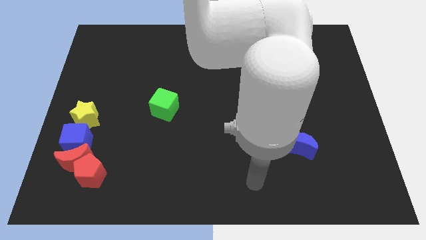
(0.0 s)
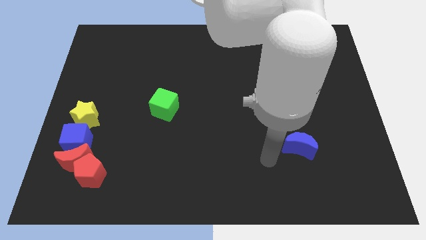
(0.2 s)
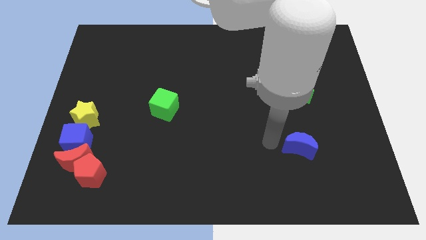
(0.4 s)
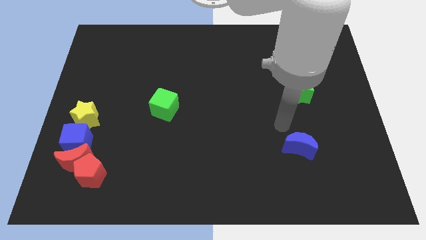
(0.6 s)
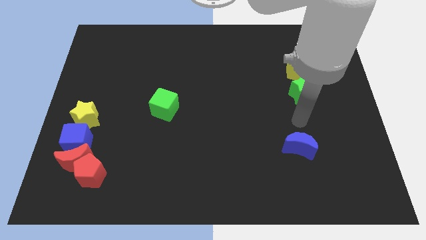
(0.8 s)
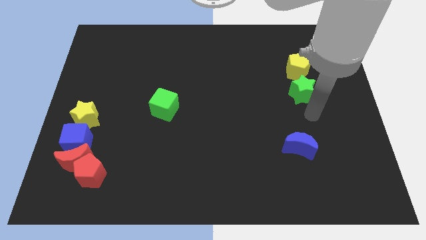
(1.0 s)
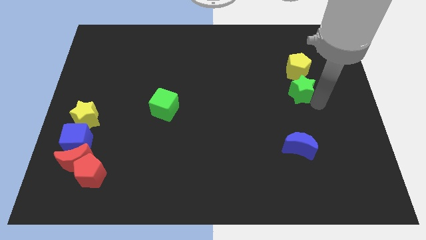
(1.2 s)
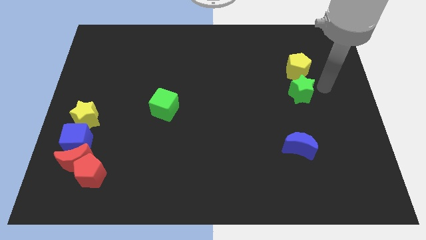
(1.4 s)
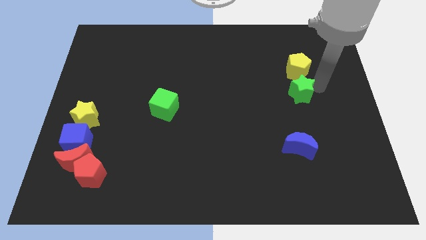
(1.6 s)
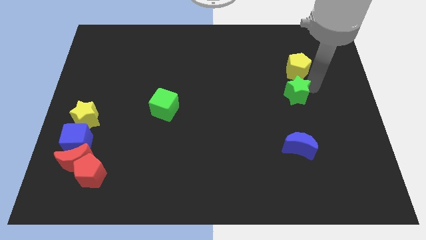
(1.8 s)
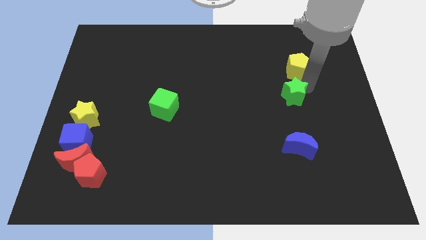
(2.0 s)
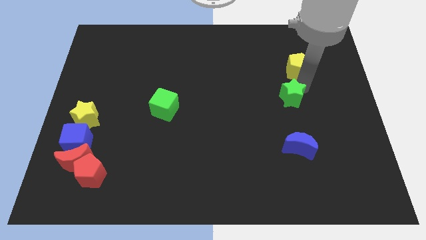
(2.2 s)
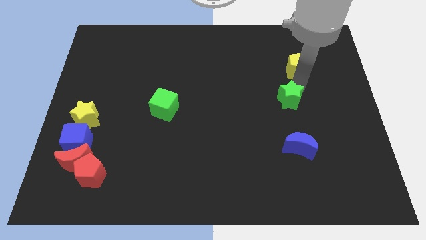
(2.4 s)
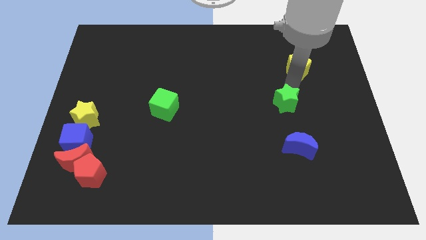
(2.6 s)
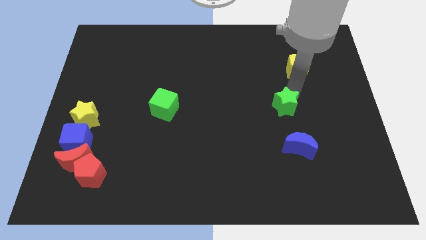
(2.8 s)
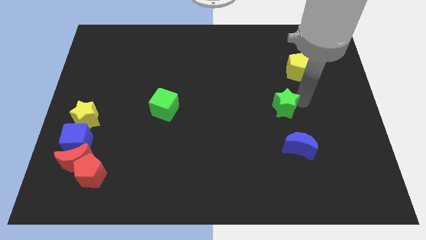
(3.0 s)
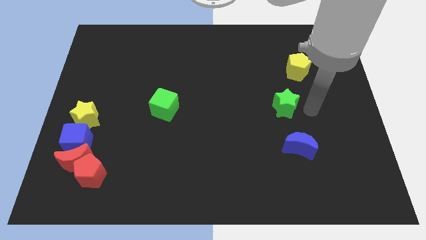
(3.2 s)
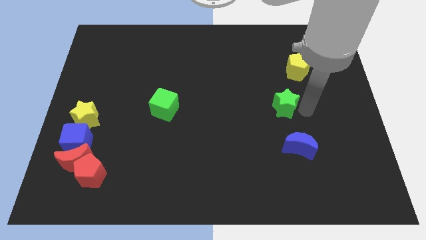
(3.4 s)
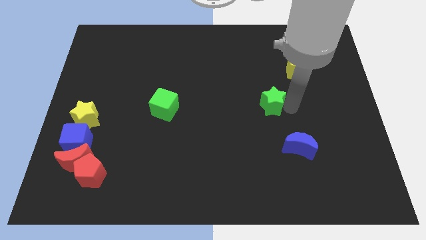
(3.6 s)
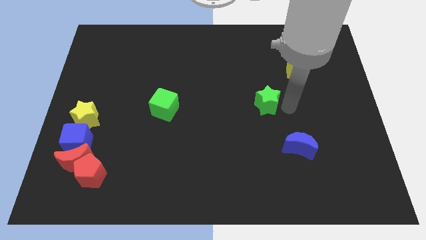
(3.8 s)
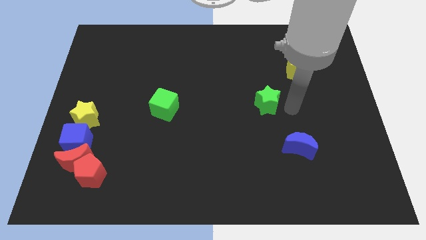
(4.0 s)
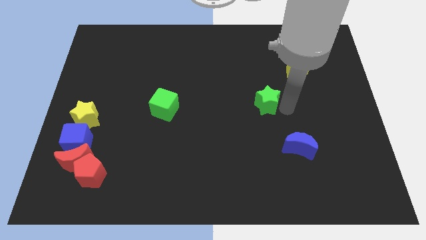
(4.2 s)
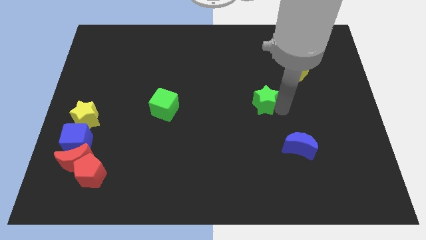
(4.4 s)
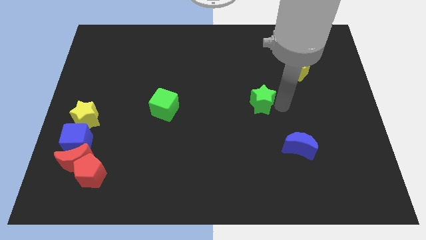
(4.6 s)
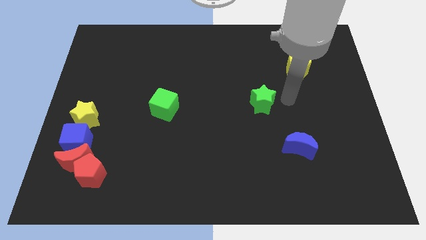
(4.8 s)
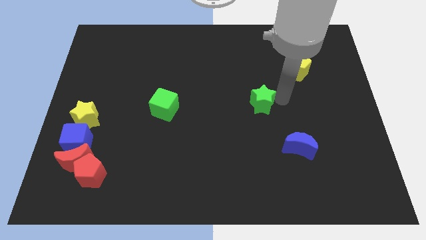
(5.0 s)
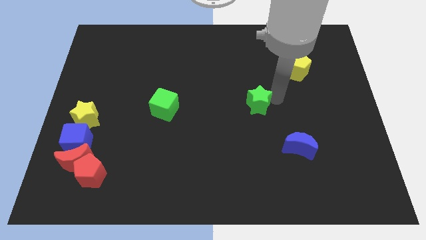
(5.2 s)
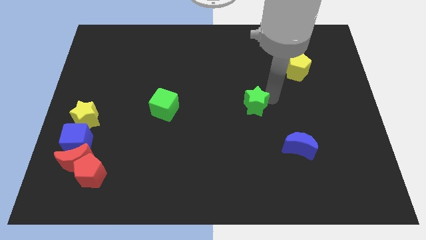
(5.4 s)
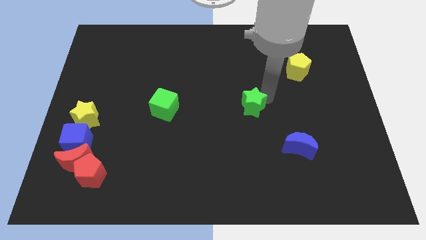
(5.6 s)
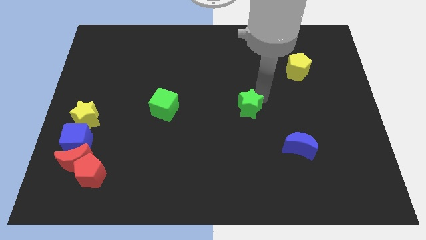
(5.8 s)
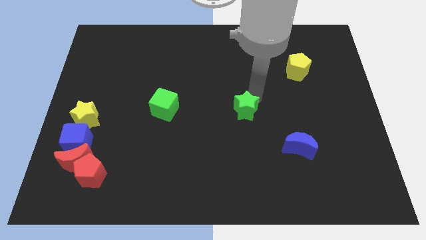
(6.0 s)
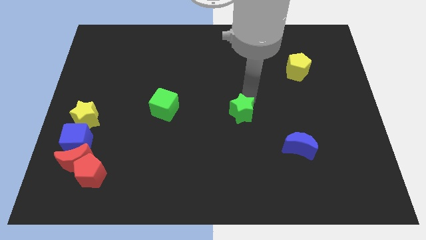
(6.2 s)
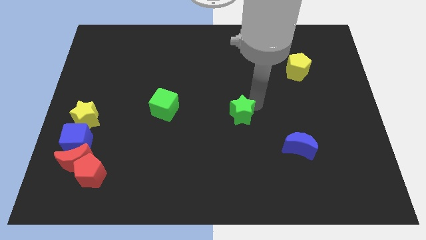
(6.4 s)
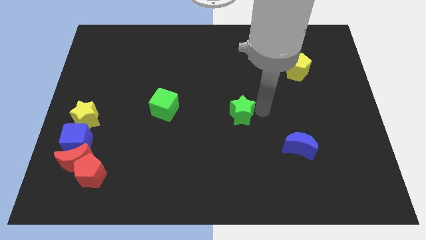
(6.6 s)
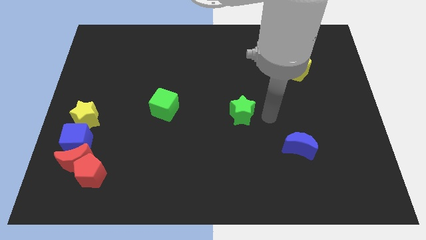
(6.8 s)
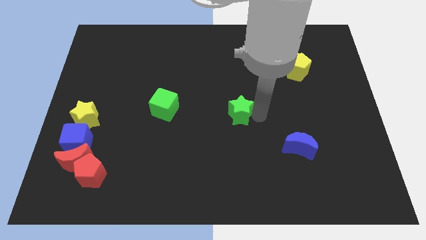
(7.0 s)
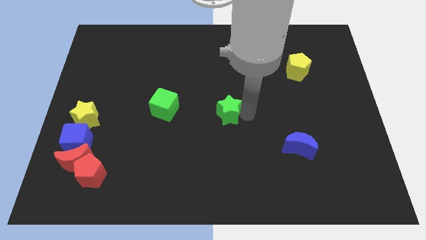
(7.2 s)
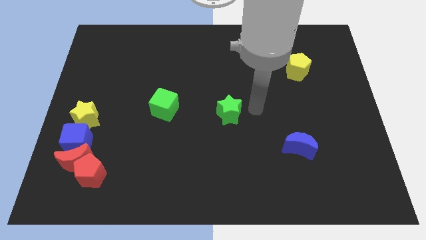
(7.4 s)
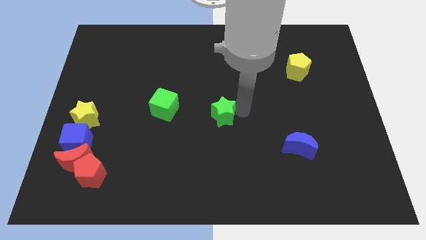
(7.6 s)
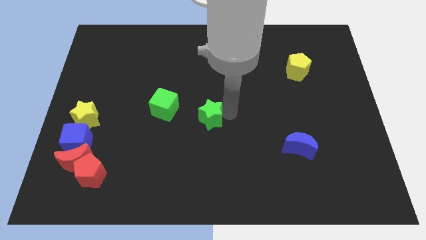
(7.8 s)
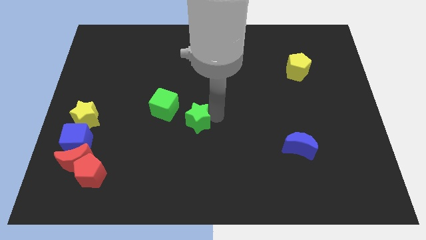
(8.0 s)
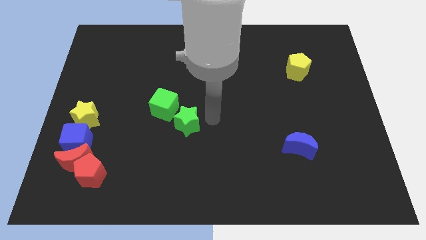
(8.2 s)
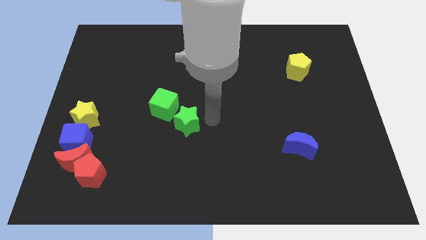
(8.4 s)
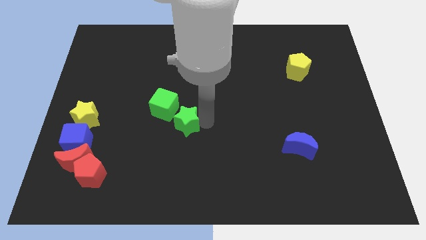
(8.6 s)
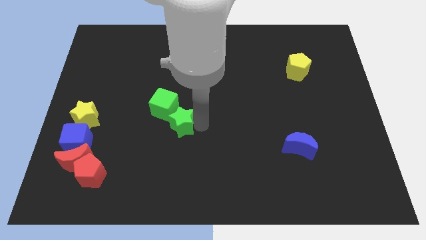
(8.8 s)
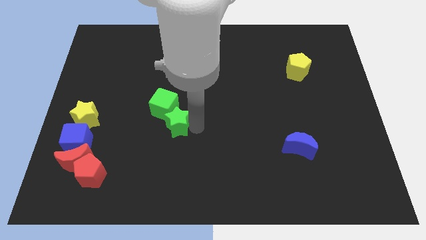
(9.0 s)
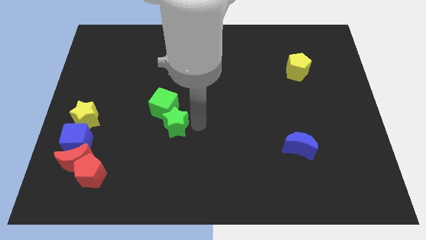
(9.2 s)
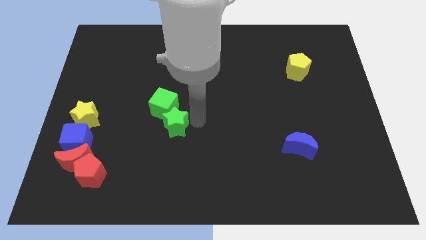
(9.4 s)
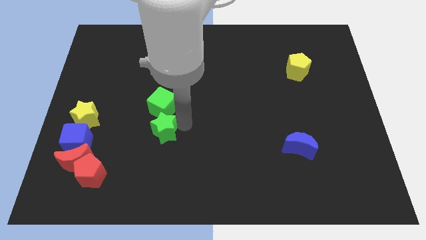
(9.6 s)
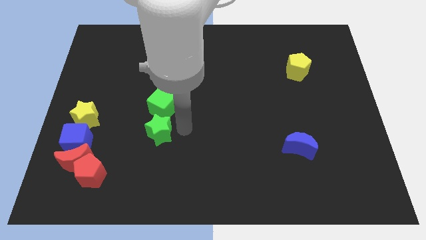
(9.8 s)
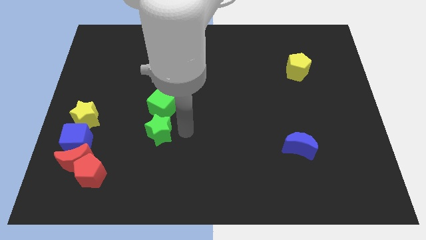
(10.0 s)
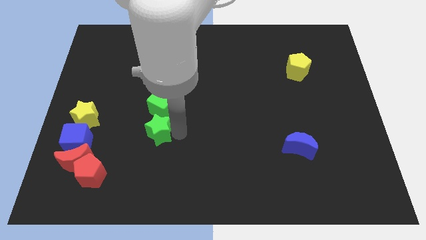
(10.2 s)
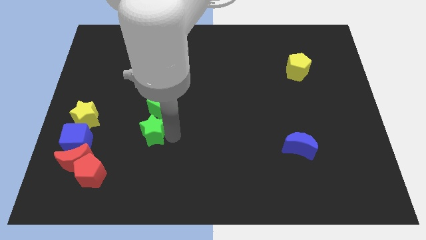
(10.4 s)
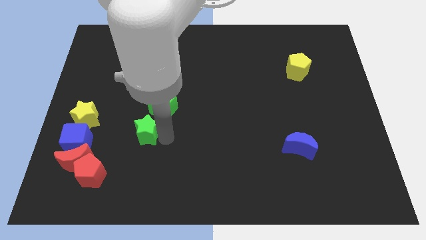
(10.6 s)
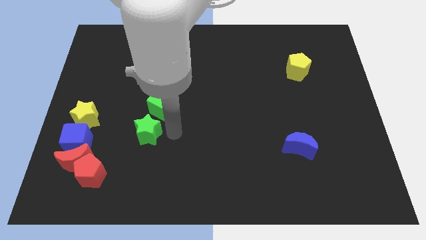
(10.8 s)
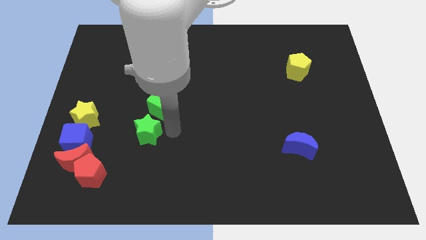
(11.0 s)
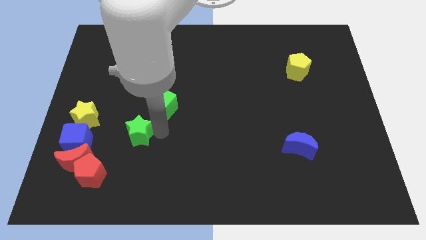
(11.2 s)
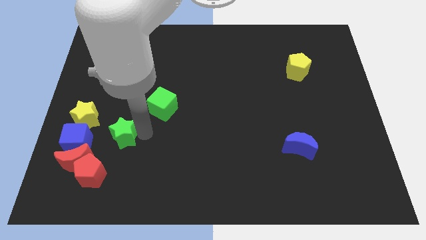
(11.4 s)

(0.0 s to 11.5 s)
move the green star to the bottom right of the yellow star

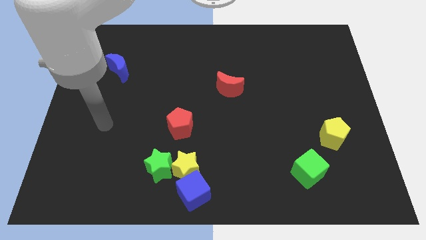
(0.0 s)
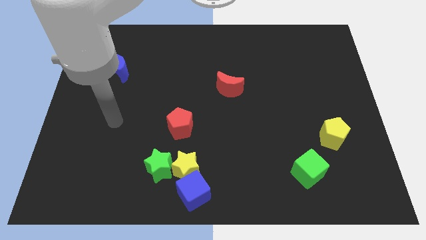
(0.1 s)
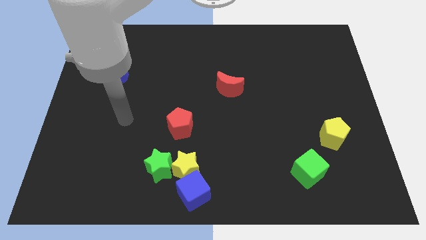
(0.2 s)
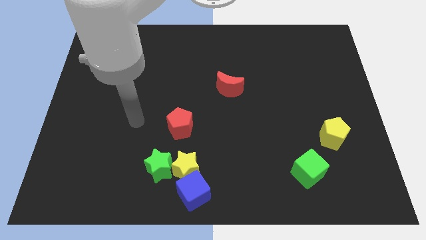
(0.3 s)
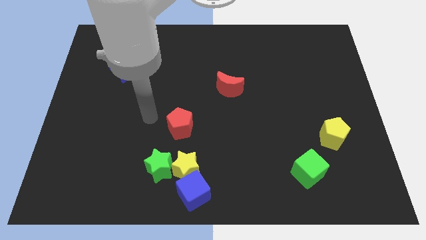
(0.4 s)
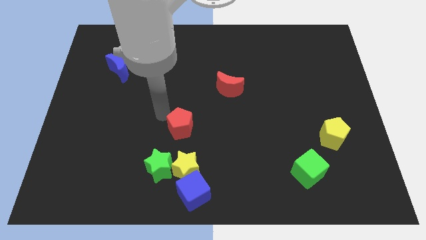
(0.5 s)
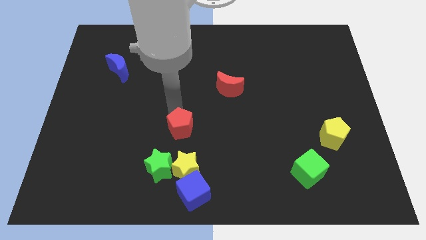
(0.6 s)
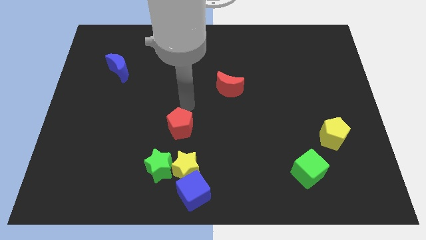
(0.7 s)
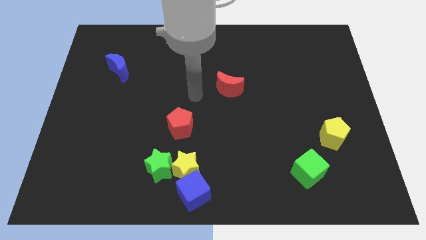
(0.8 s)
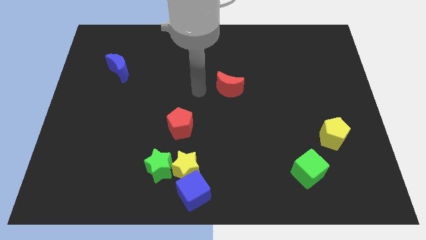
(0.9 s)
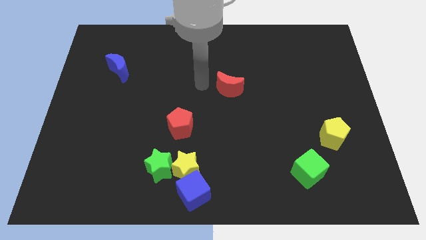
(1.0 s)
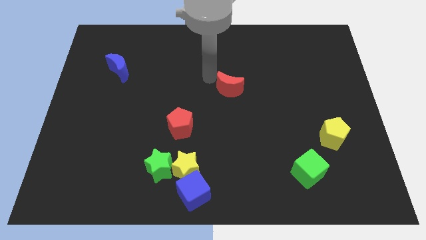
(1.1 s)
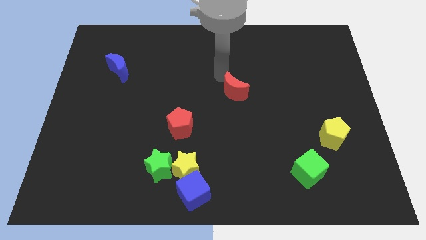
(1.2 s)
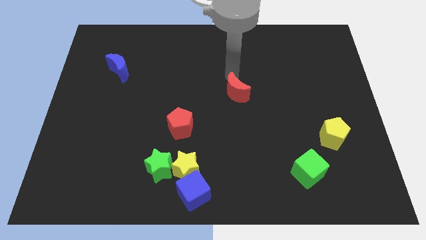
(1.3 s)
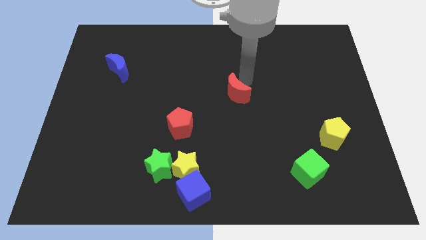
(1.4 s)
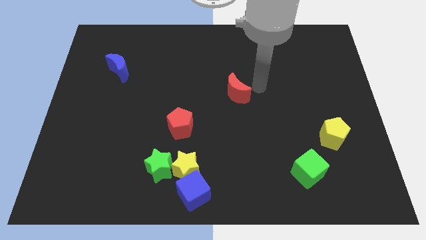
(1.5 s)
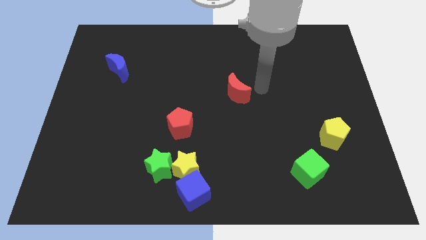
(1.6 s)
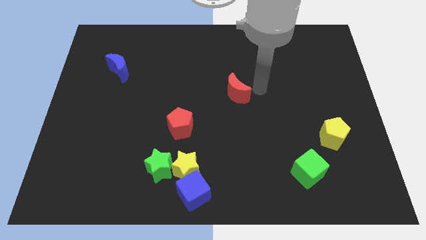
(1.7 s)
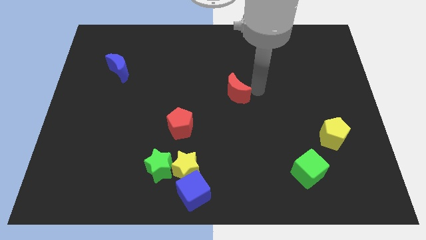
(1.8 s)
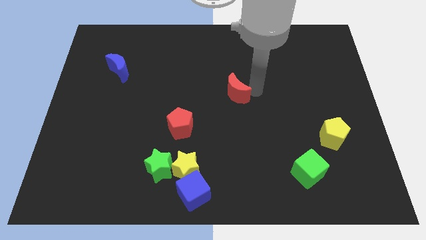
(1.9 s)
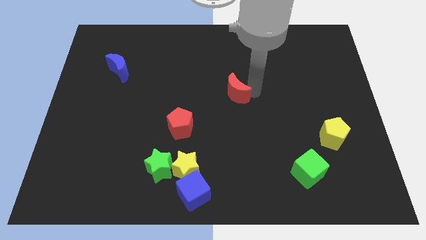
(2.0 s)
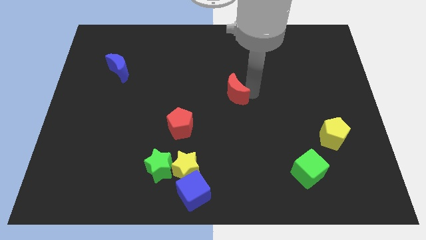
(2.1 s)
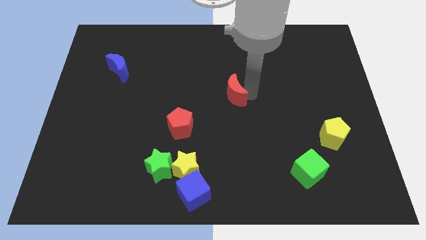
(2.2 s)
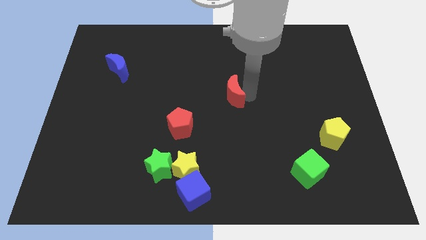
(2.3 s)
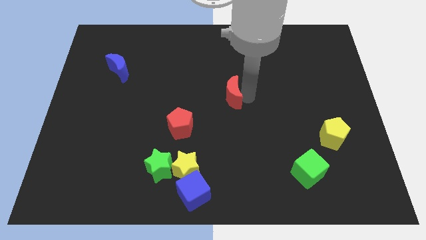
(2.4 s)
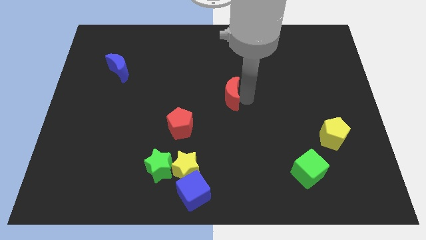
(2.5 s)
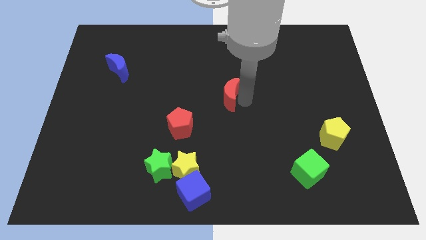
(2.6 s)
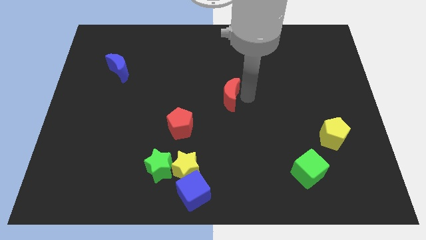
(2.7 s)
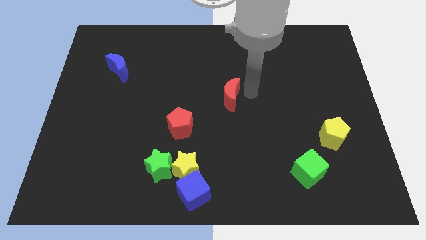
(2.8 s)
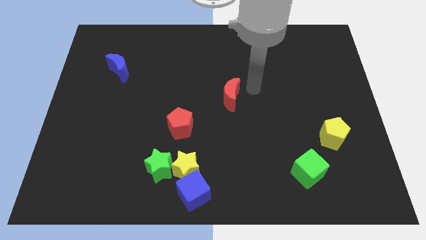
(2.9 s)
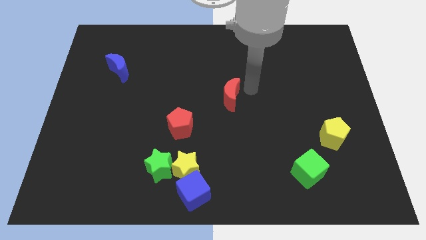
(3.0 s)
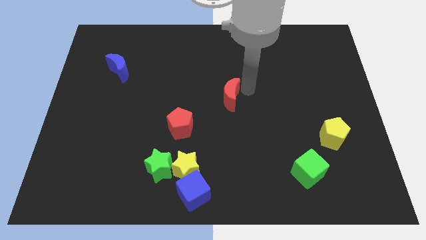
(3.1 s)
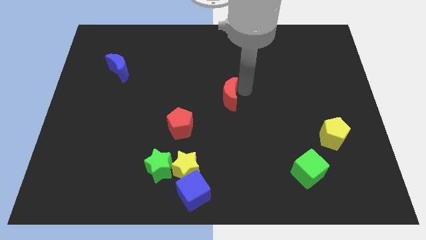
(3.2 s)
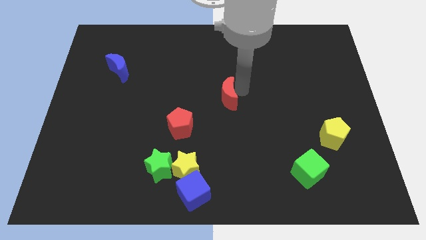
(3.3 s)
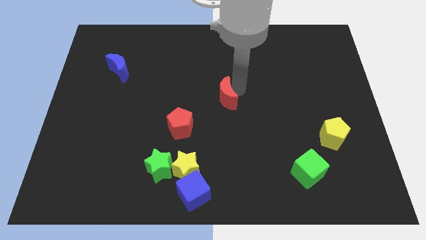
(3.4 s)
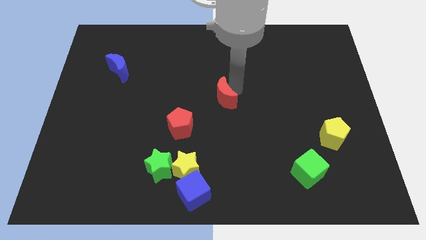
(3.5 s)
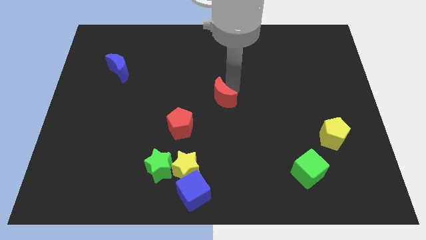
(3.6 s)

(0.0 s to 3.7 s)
slide the red moon diagonally up and to the right of the red pentagon
